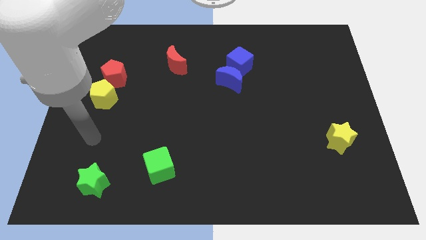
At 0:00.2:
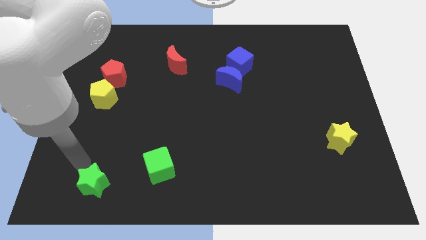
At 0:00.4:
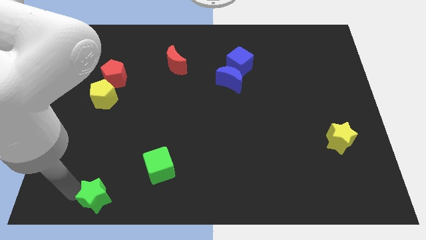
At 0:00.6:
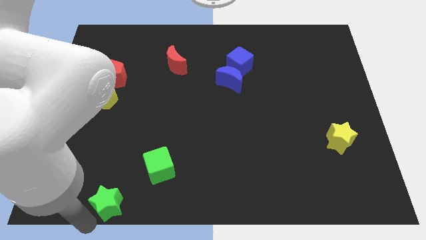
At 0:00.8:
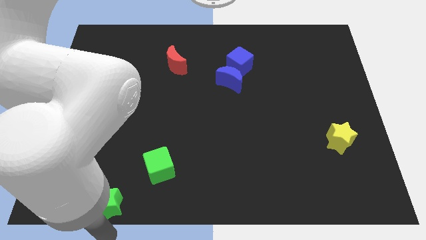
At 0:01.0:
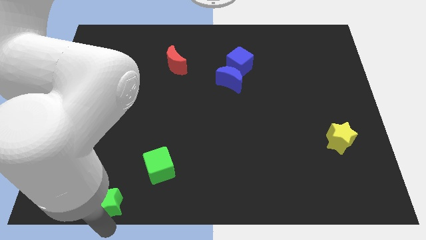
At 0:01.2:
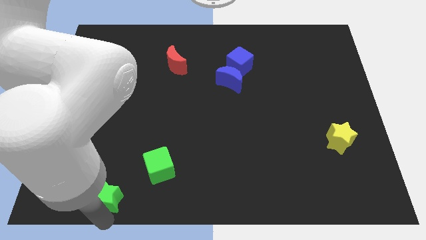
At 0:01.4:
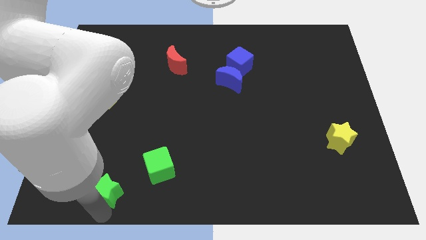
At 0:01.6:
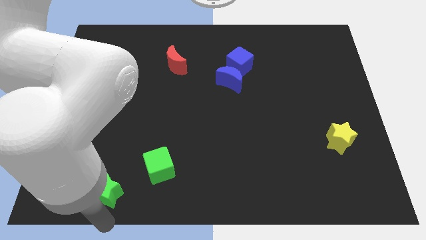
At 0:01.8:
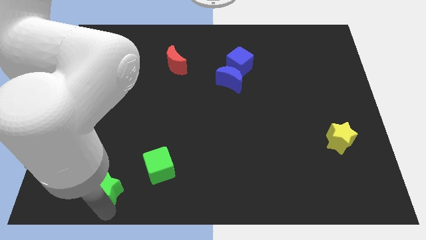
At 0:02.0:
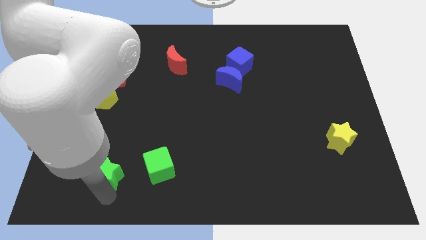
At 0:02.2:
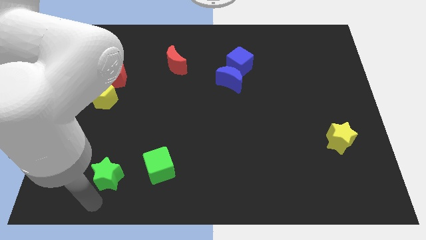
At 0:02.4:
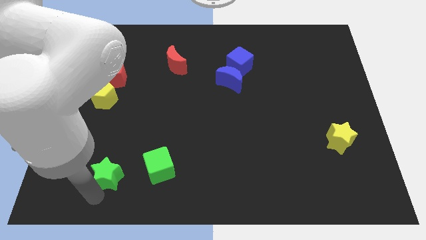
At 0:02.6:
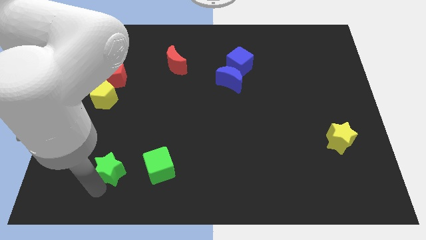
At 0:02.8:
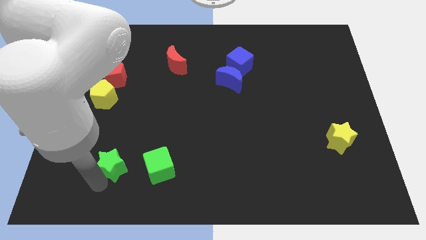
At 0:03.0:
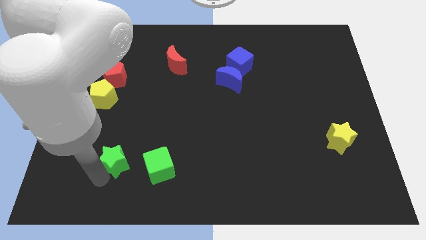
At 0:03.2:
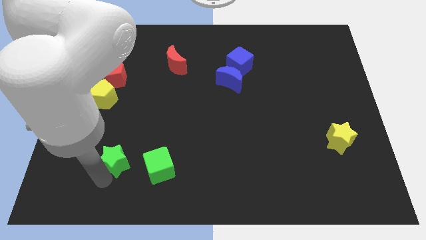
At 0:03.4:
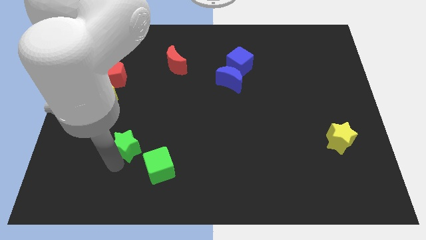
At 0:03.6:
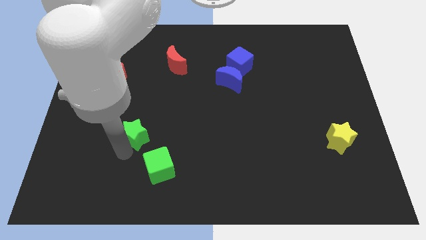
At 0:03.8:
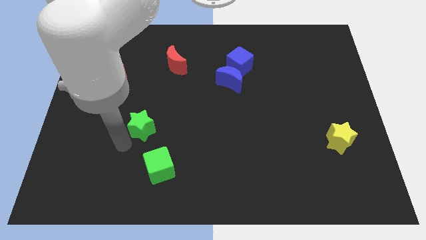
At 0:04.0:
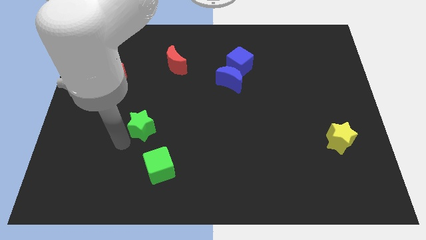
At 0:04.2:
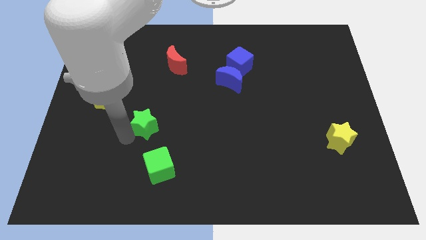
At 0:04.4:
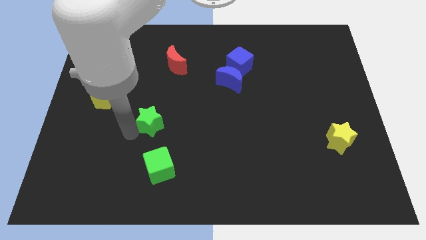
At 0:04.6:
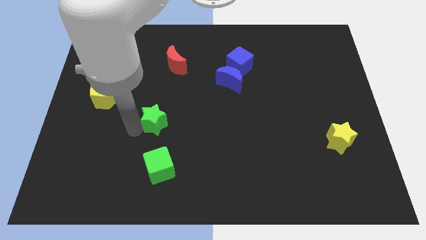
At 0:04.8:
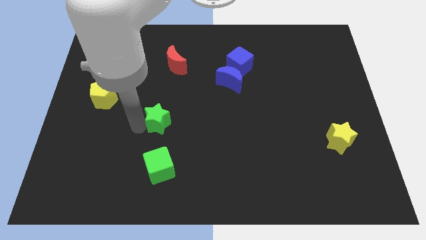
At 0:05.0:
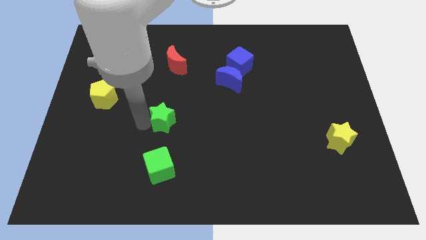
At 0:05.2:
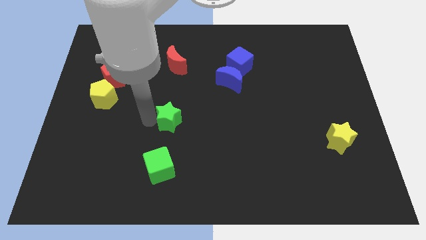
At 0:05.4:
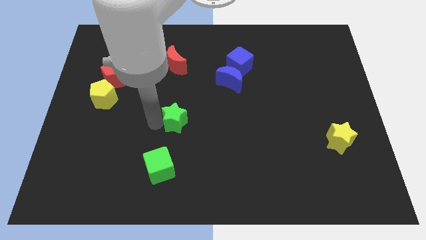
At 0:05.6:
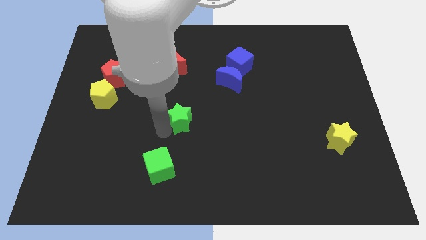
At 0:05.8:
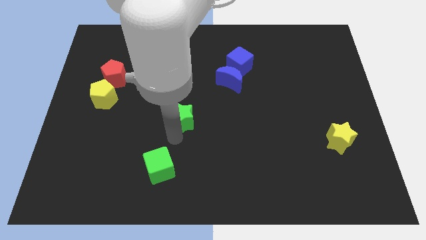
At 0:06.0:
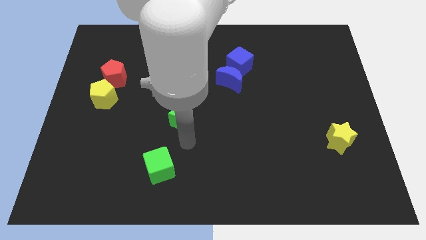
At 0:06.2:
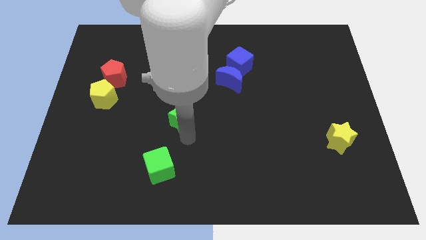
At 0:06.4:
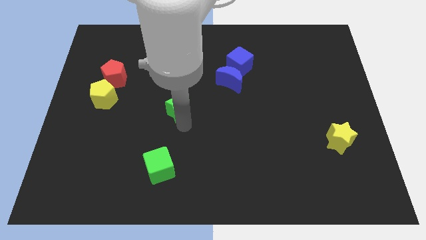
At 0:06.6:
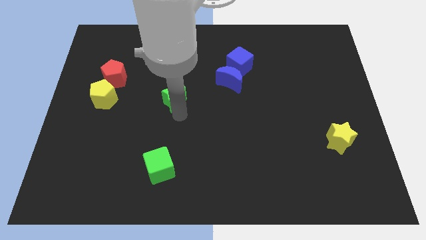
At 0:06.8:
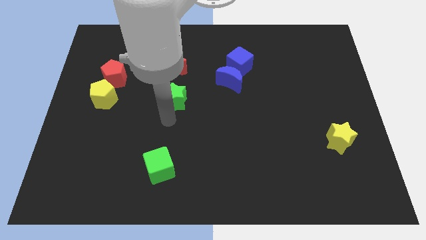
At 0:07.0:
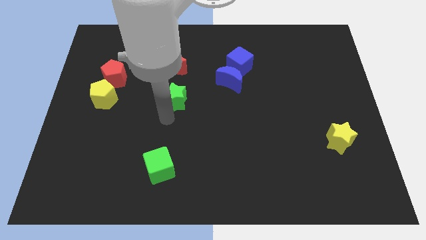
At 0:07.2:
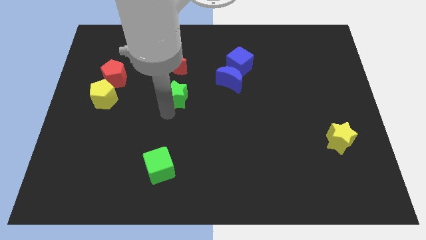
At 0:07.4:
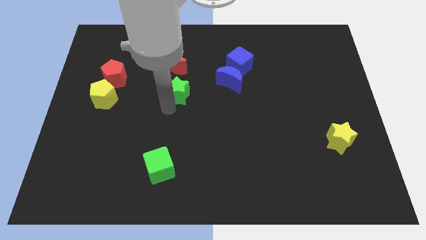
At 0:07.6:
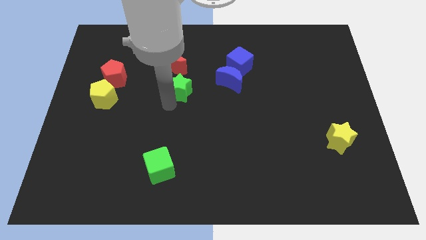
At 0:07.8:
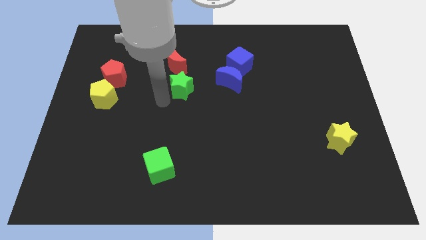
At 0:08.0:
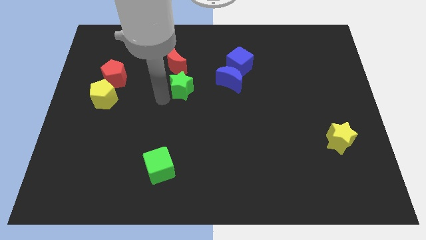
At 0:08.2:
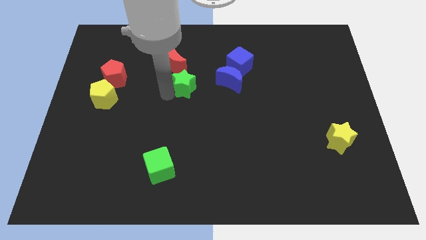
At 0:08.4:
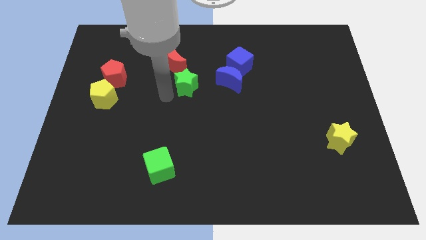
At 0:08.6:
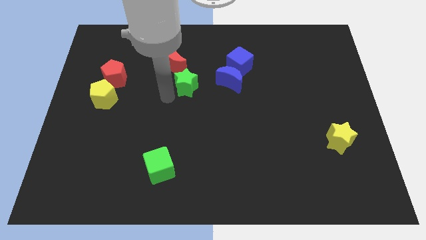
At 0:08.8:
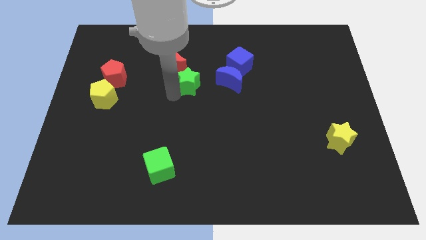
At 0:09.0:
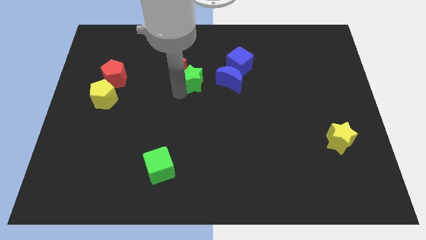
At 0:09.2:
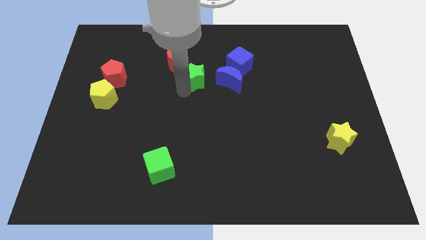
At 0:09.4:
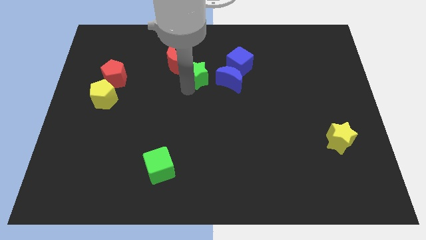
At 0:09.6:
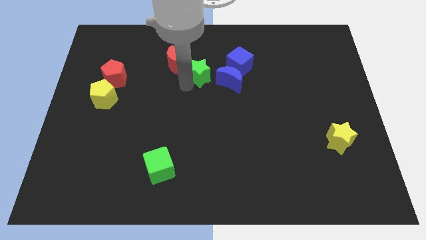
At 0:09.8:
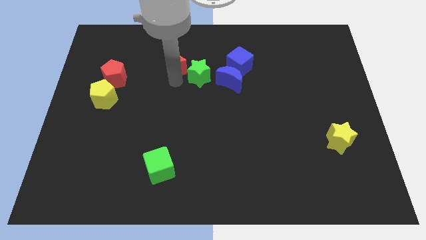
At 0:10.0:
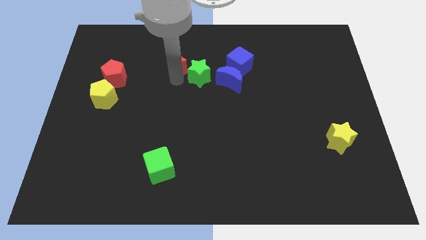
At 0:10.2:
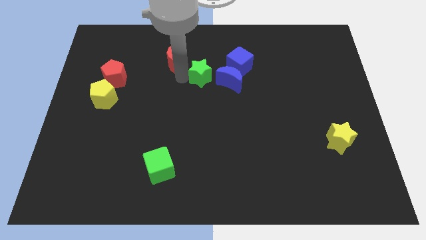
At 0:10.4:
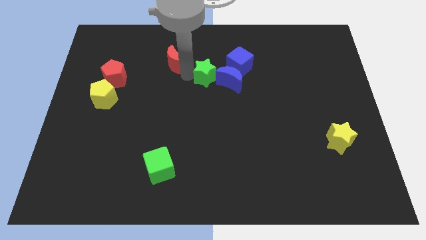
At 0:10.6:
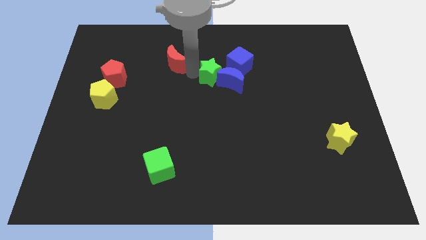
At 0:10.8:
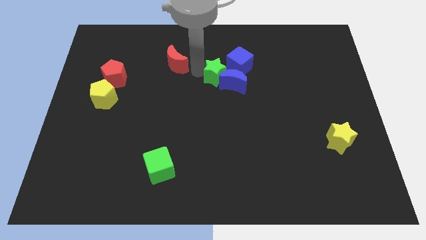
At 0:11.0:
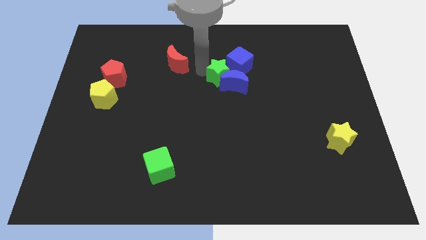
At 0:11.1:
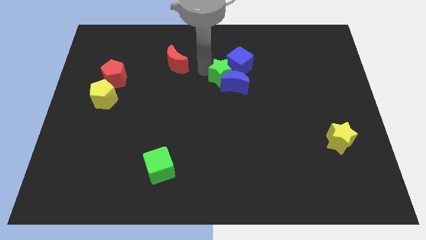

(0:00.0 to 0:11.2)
slide the green star close to the blue cube

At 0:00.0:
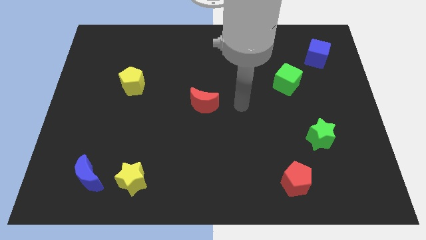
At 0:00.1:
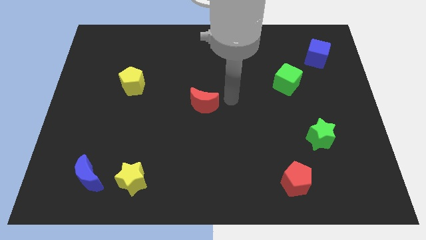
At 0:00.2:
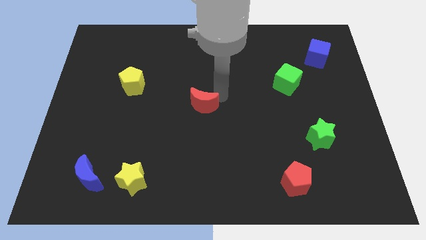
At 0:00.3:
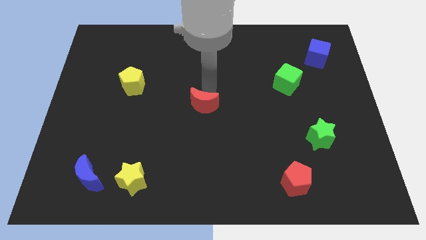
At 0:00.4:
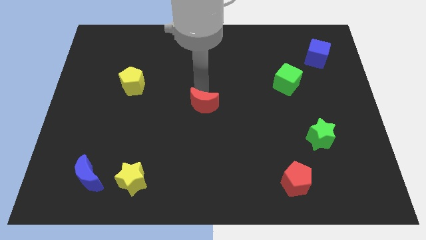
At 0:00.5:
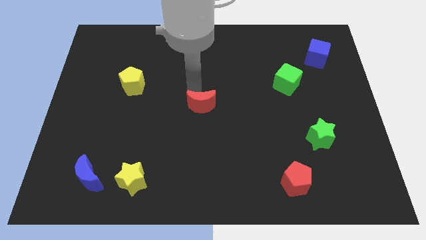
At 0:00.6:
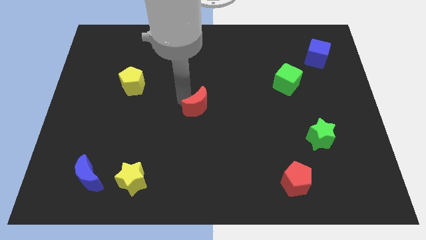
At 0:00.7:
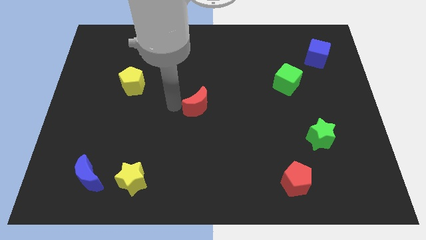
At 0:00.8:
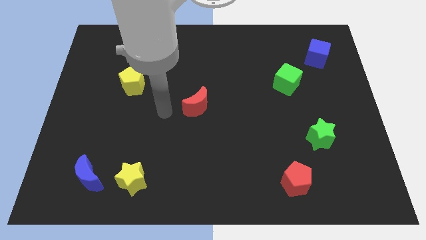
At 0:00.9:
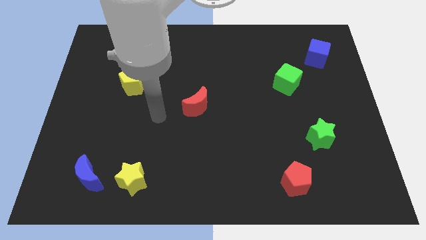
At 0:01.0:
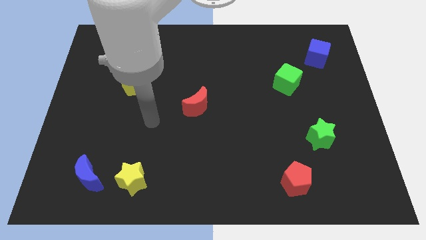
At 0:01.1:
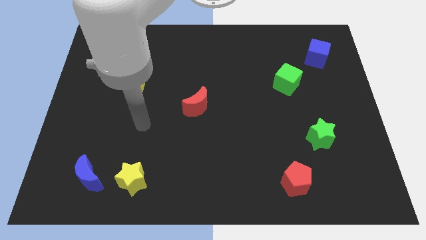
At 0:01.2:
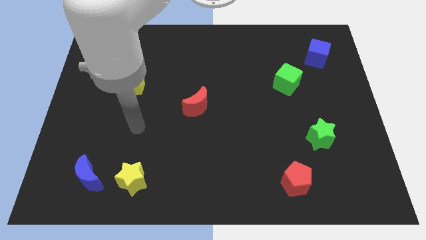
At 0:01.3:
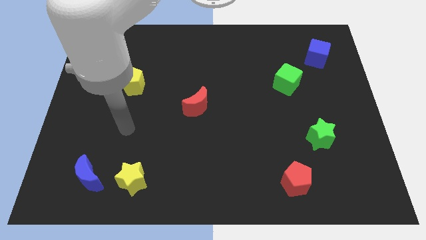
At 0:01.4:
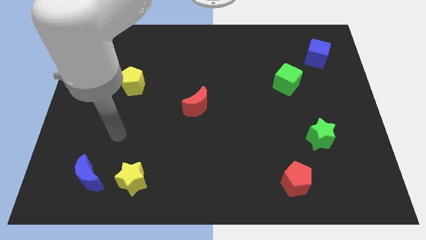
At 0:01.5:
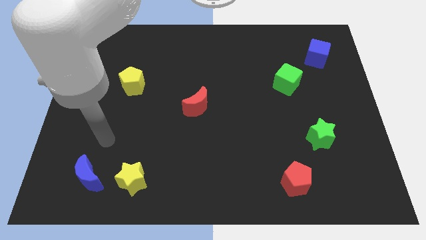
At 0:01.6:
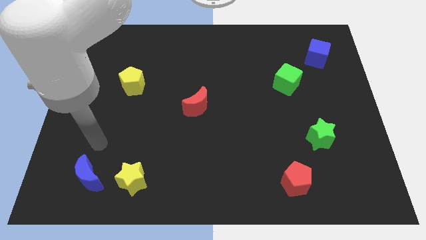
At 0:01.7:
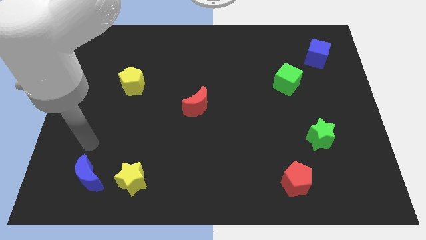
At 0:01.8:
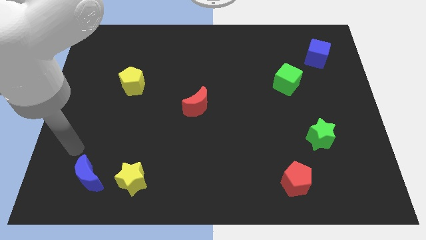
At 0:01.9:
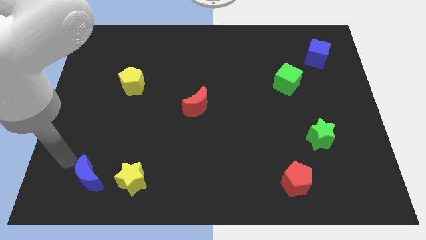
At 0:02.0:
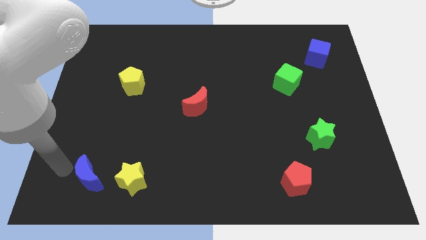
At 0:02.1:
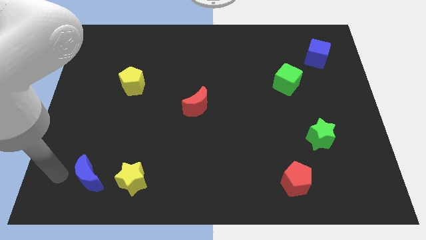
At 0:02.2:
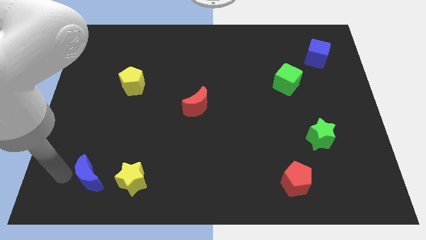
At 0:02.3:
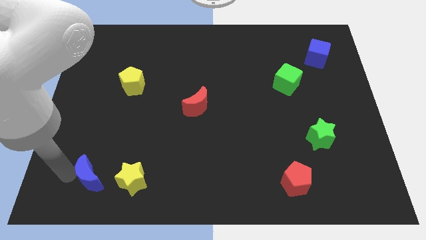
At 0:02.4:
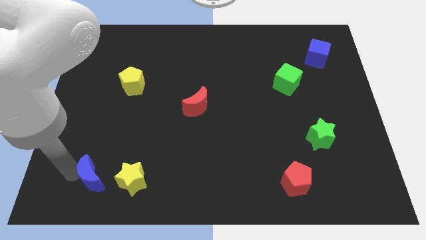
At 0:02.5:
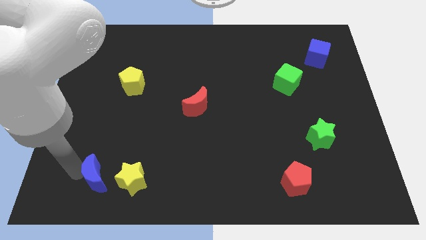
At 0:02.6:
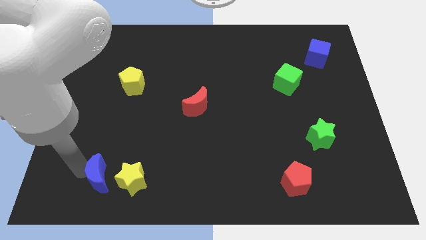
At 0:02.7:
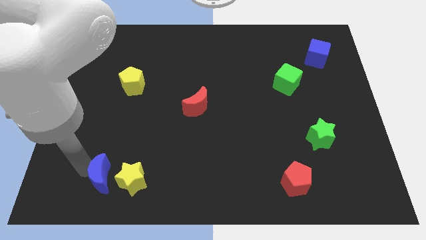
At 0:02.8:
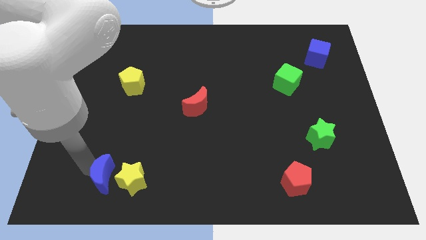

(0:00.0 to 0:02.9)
slide the blue moon to the yellow star
